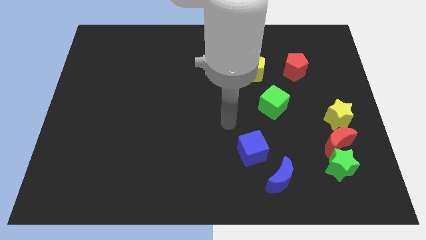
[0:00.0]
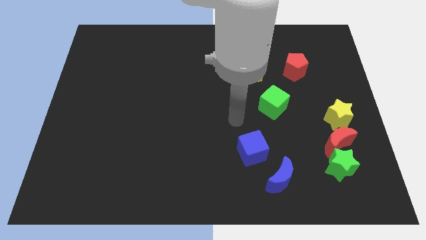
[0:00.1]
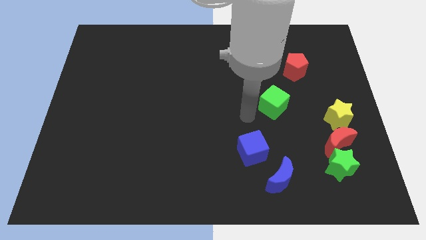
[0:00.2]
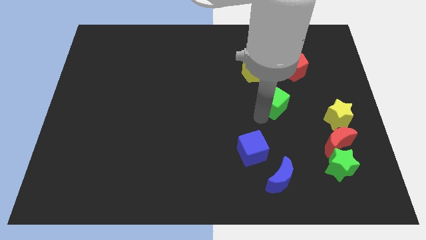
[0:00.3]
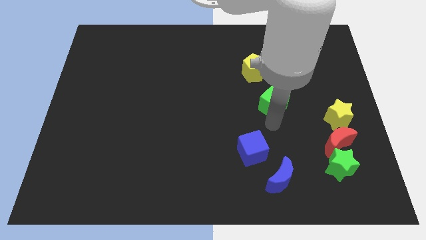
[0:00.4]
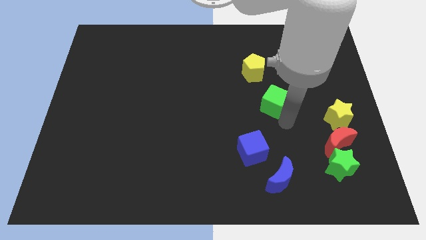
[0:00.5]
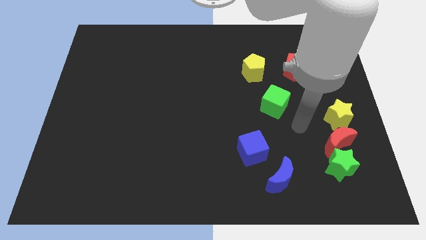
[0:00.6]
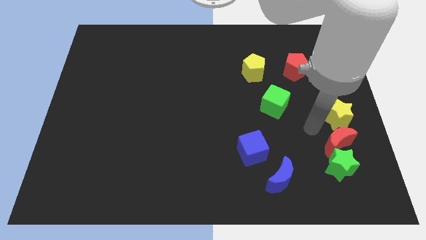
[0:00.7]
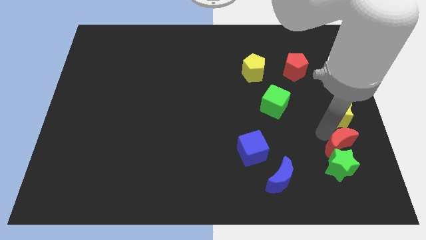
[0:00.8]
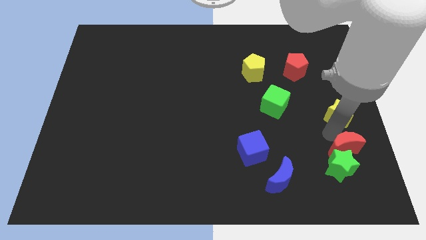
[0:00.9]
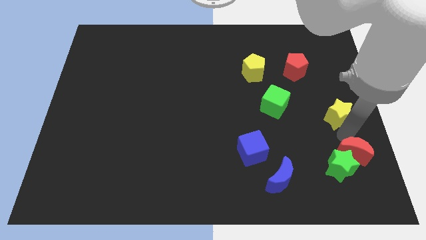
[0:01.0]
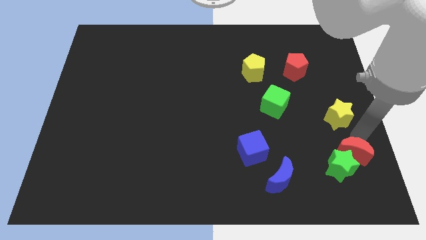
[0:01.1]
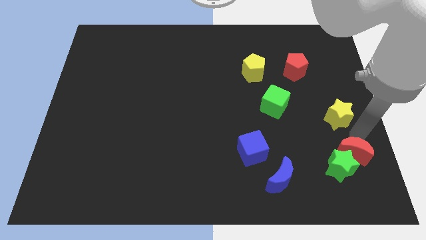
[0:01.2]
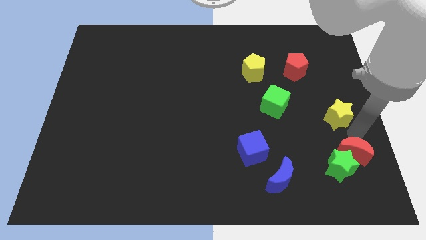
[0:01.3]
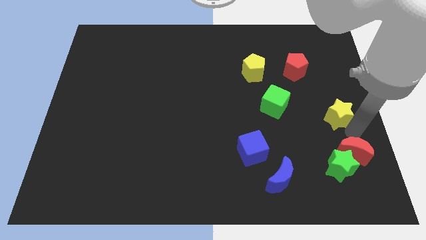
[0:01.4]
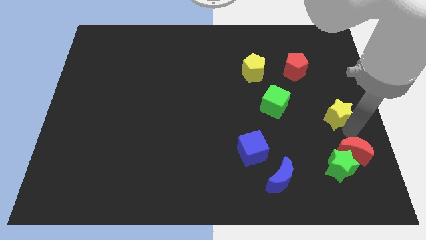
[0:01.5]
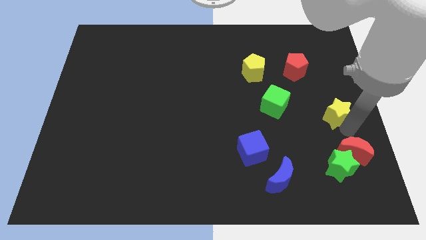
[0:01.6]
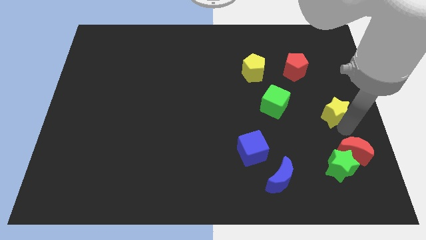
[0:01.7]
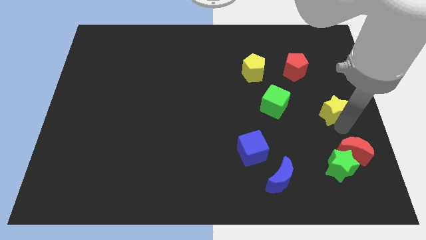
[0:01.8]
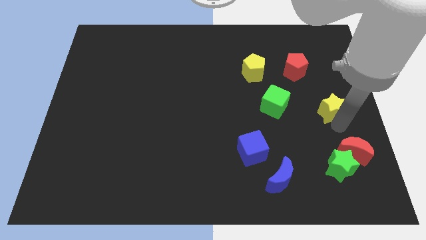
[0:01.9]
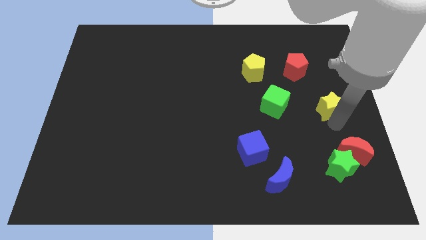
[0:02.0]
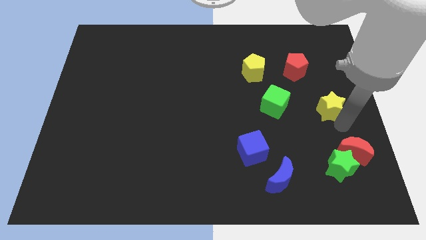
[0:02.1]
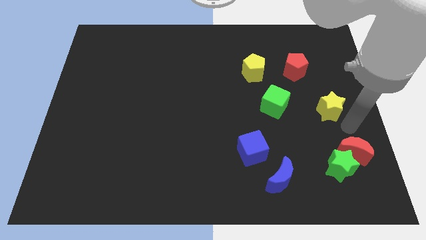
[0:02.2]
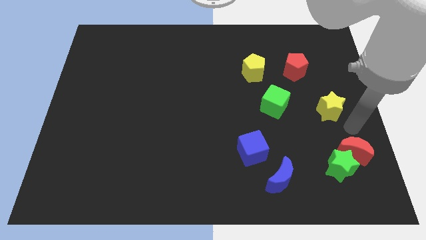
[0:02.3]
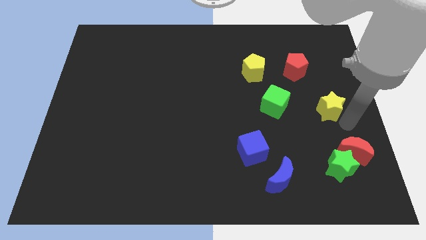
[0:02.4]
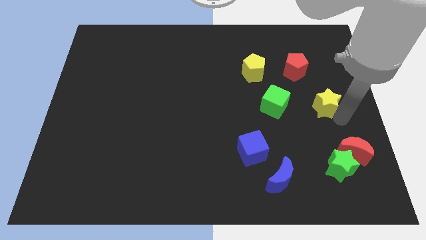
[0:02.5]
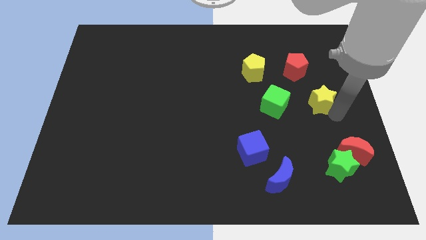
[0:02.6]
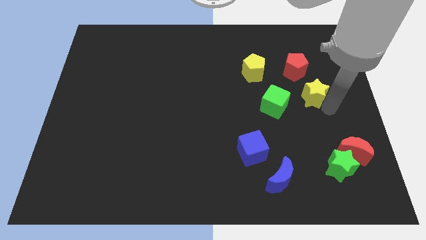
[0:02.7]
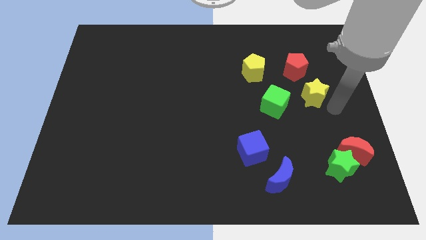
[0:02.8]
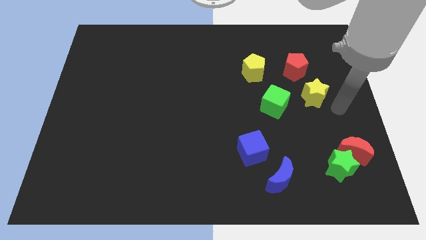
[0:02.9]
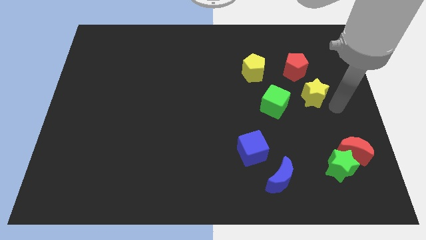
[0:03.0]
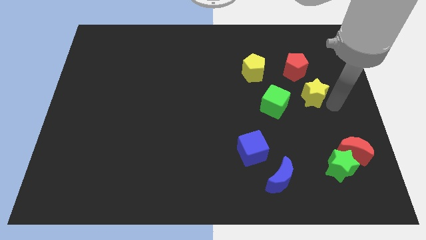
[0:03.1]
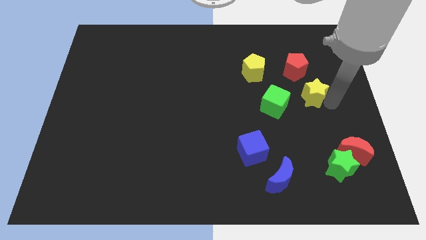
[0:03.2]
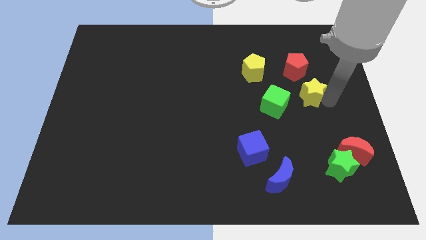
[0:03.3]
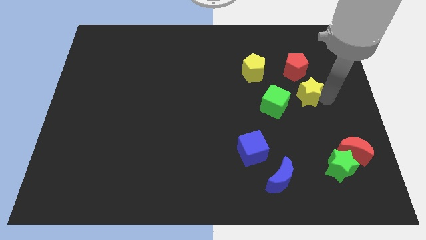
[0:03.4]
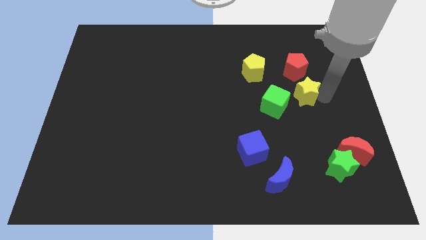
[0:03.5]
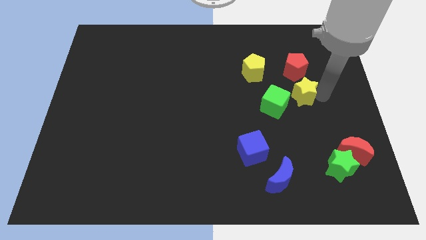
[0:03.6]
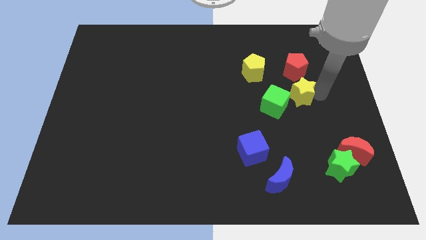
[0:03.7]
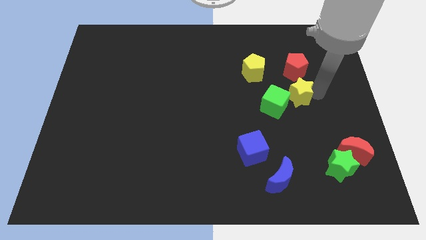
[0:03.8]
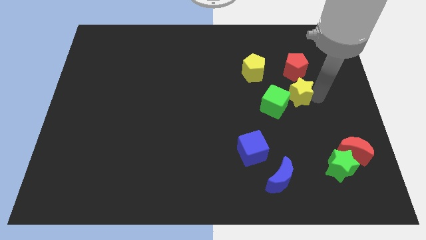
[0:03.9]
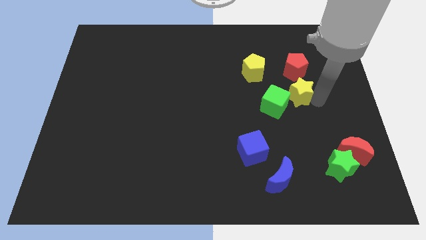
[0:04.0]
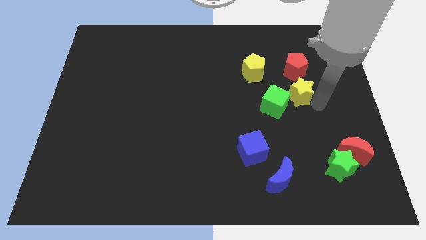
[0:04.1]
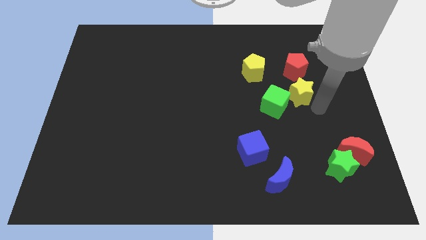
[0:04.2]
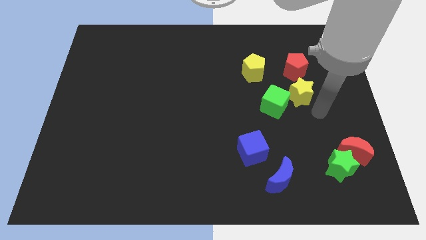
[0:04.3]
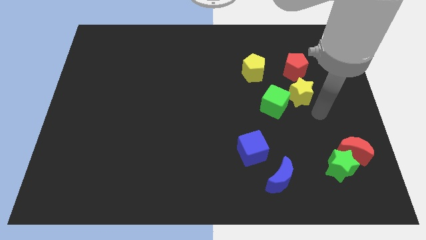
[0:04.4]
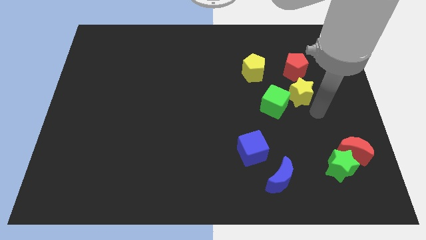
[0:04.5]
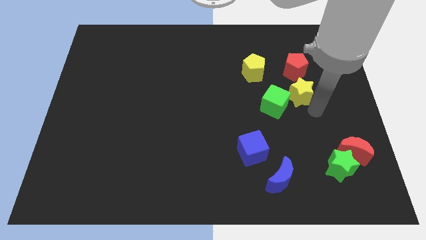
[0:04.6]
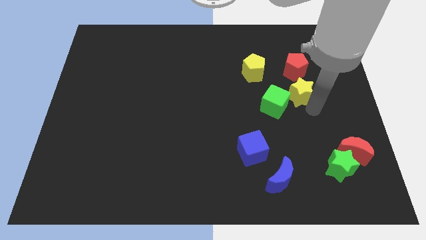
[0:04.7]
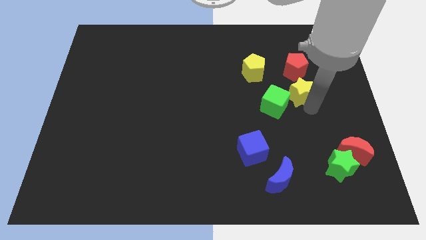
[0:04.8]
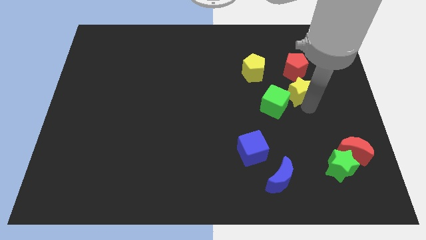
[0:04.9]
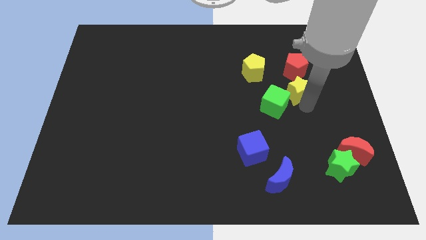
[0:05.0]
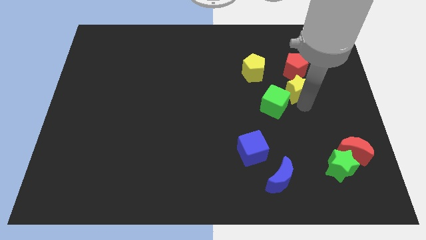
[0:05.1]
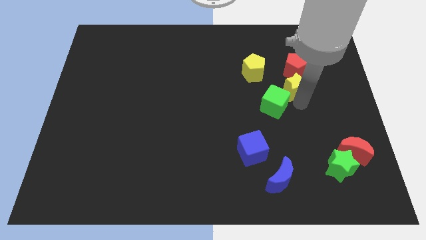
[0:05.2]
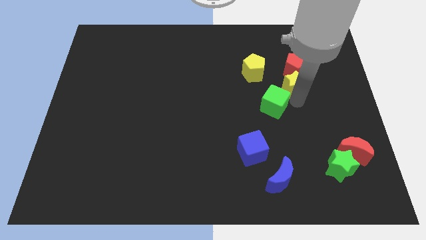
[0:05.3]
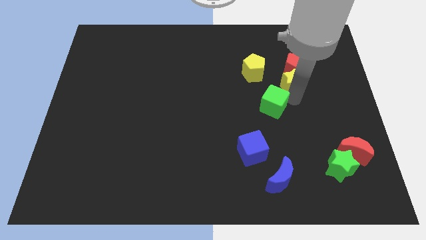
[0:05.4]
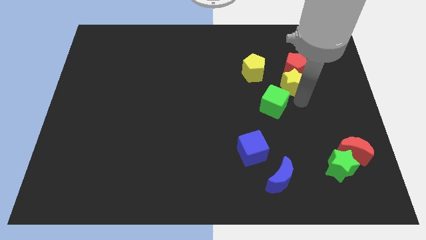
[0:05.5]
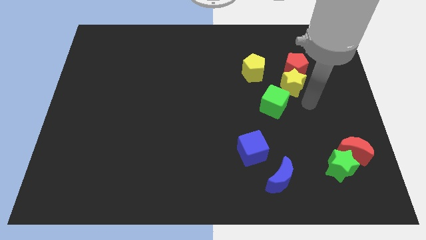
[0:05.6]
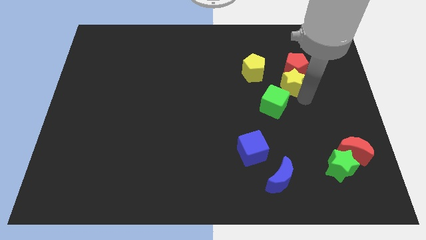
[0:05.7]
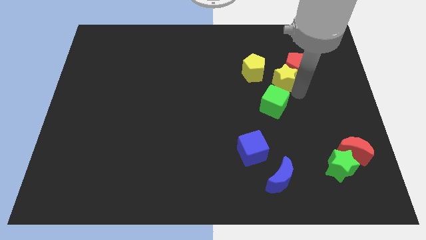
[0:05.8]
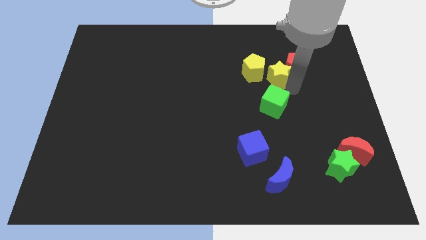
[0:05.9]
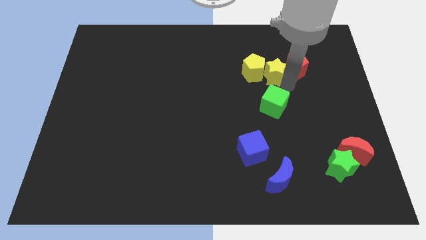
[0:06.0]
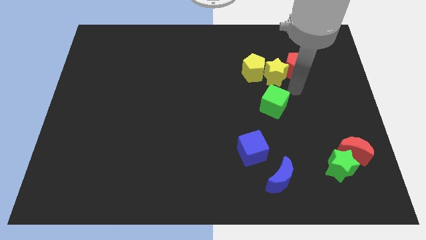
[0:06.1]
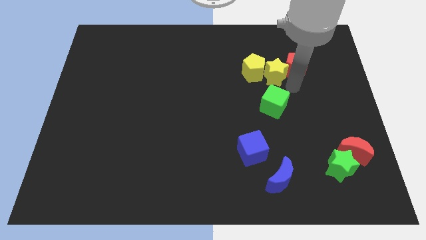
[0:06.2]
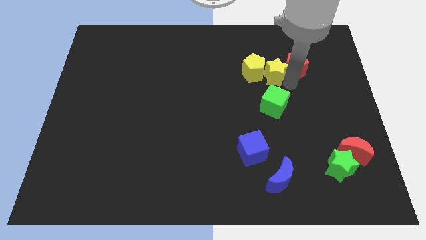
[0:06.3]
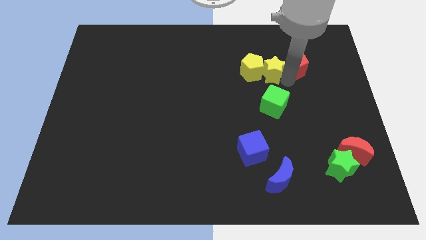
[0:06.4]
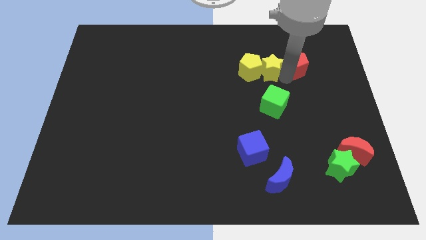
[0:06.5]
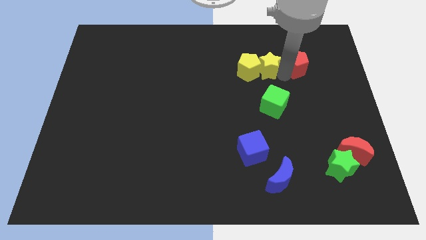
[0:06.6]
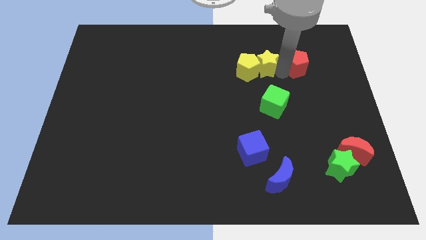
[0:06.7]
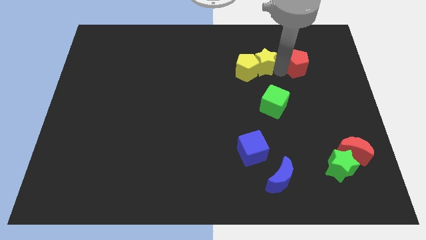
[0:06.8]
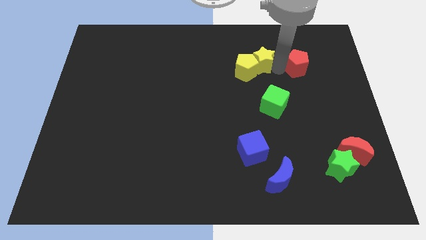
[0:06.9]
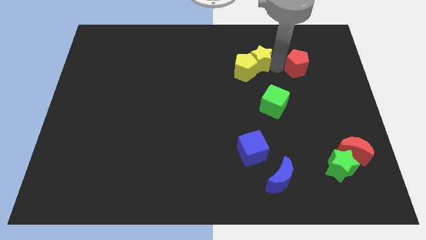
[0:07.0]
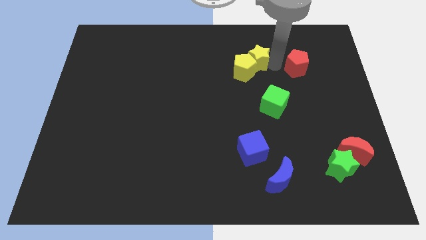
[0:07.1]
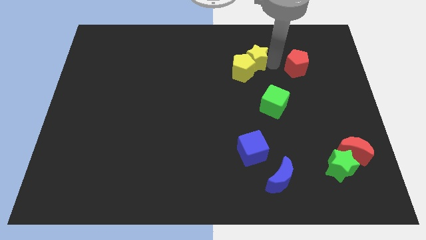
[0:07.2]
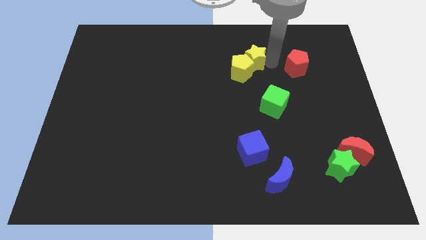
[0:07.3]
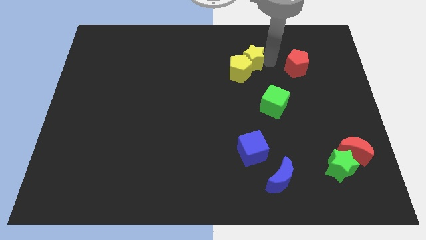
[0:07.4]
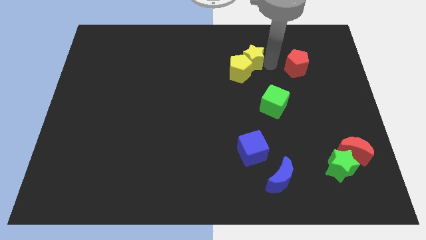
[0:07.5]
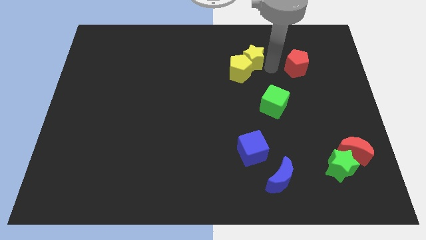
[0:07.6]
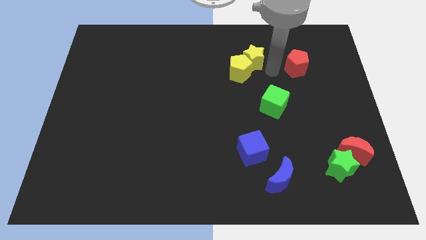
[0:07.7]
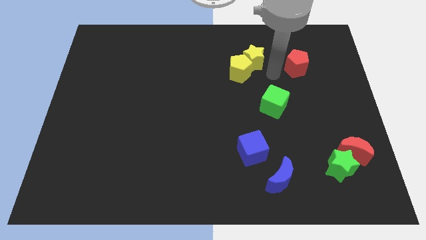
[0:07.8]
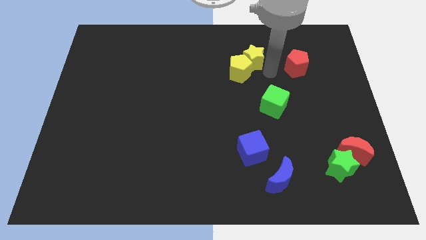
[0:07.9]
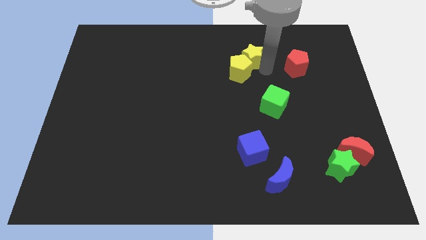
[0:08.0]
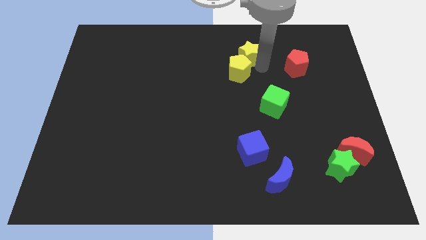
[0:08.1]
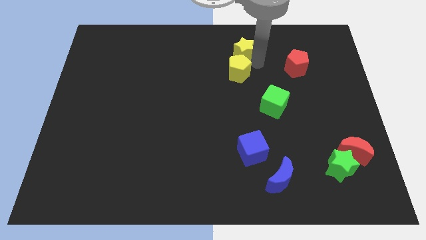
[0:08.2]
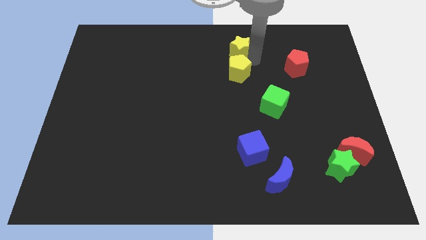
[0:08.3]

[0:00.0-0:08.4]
slide the yellow star to the top
